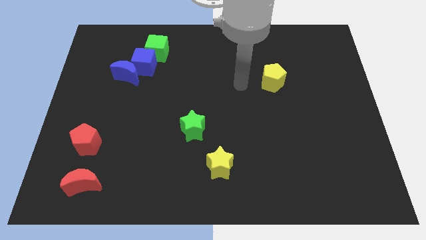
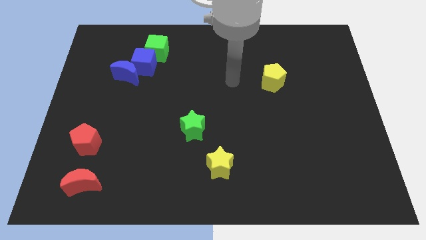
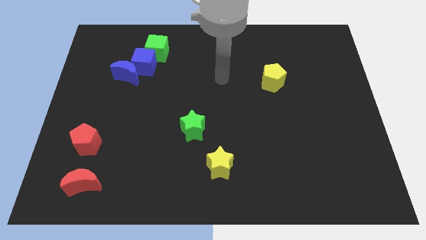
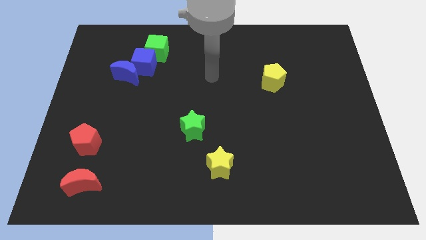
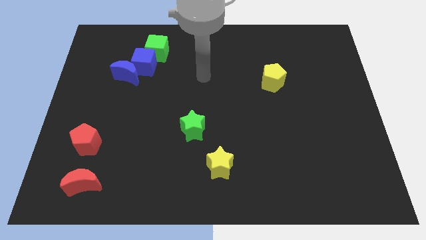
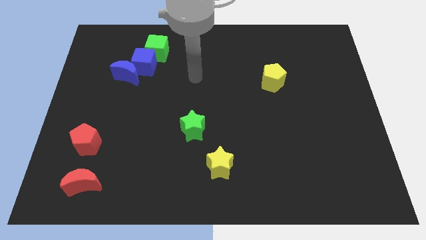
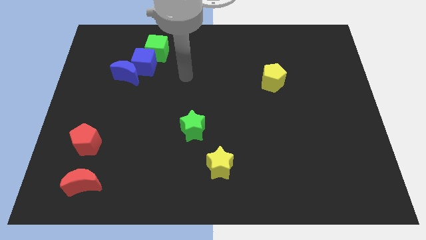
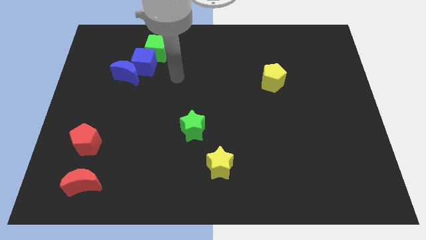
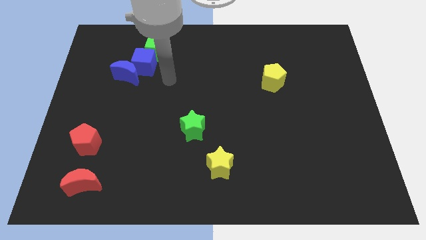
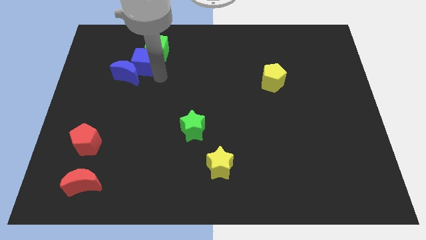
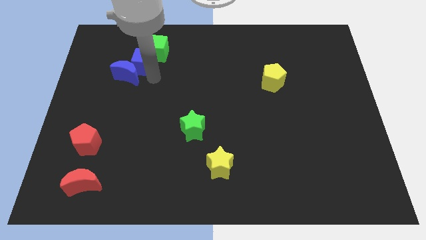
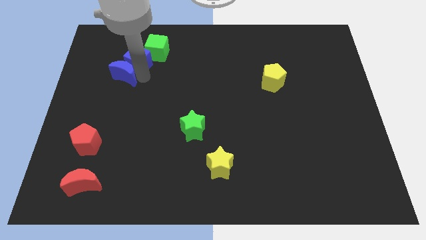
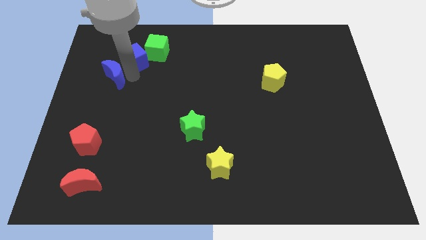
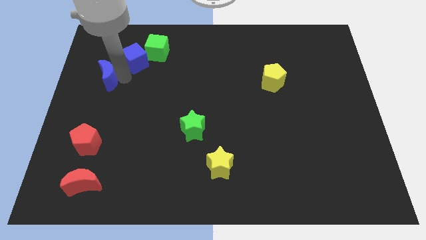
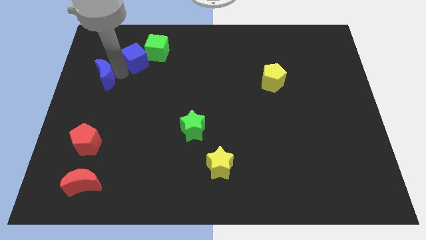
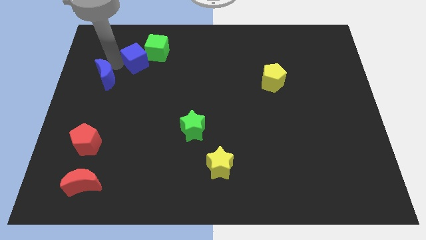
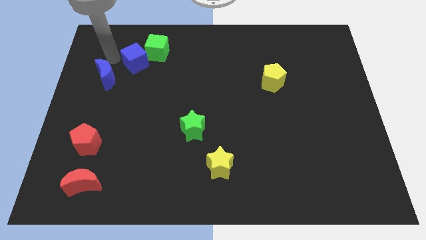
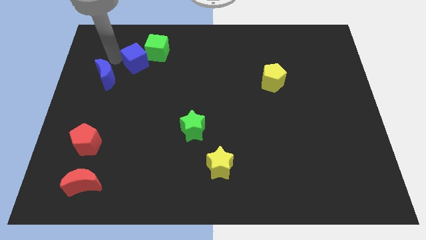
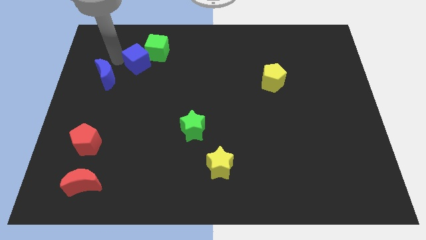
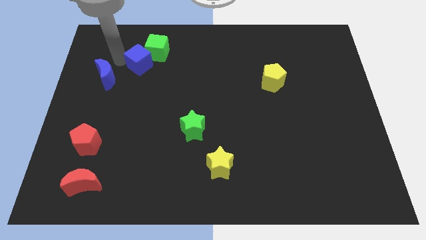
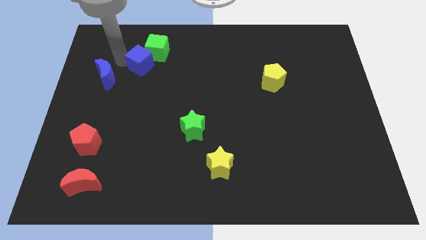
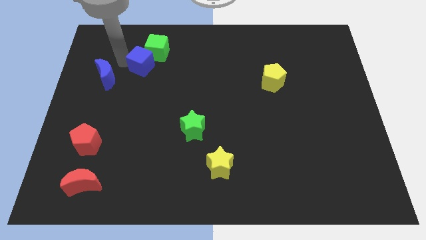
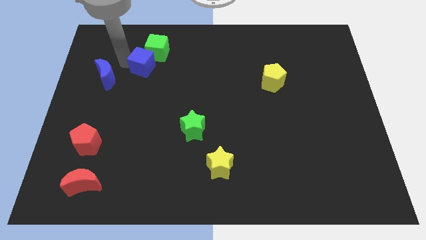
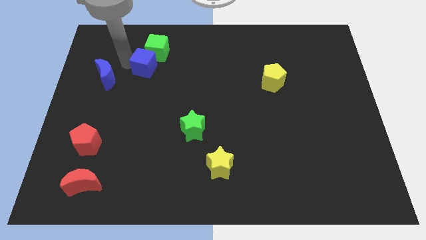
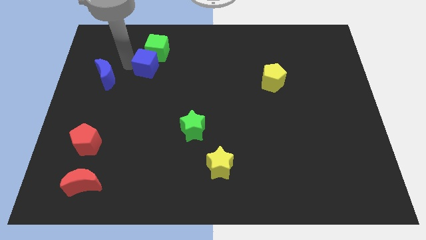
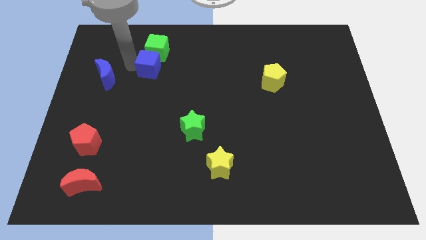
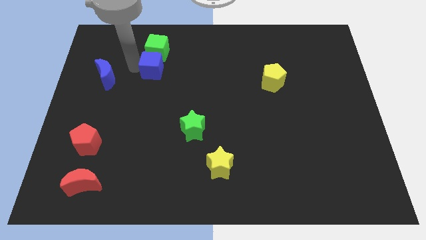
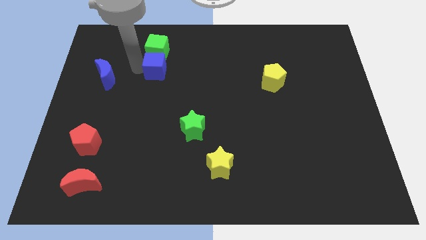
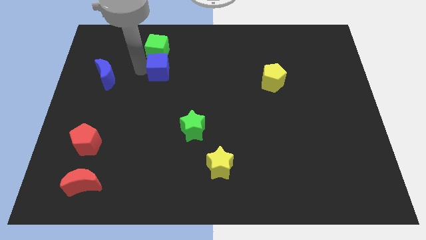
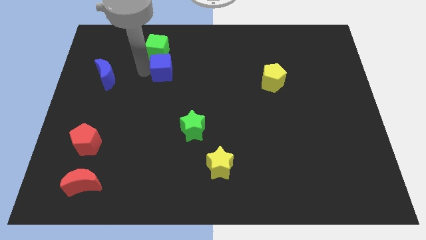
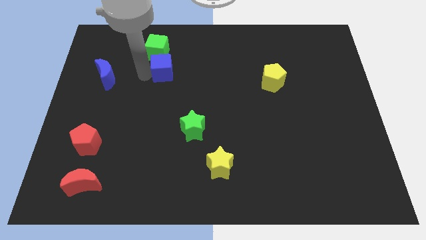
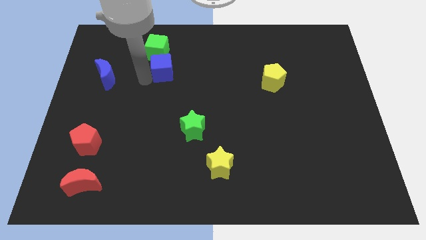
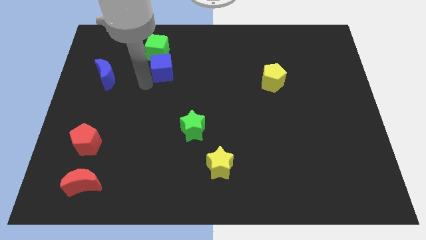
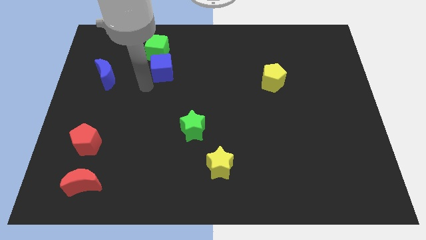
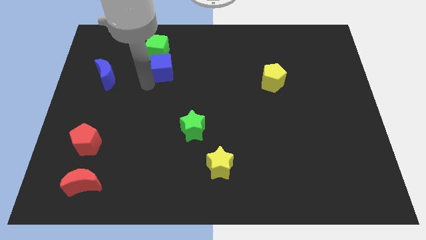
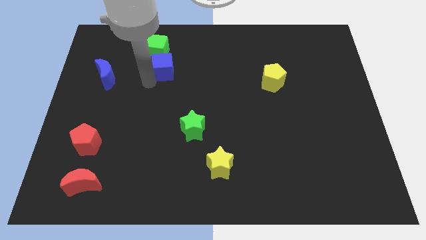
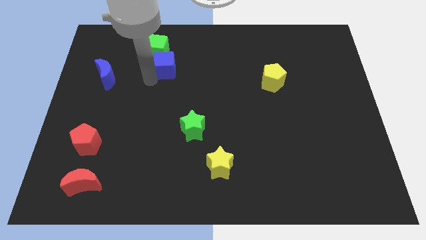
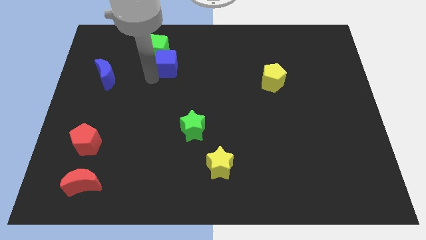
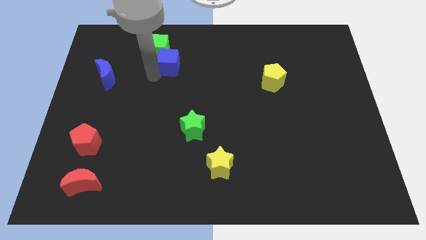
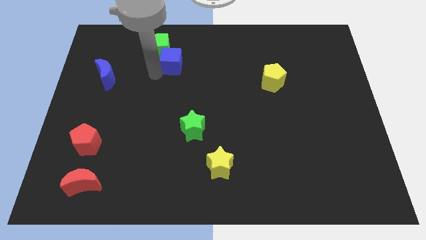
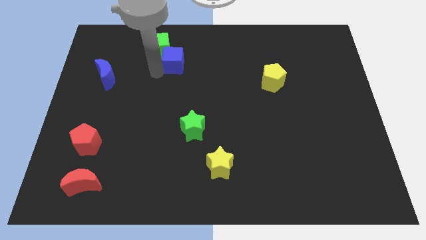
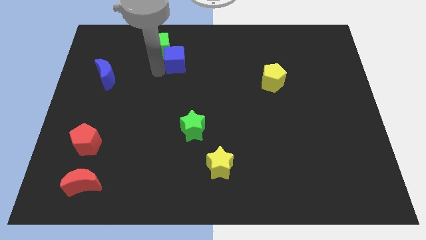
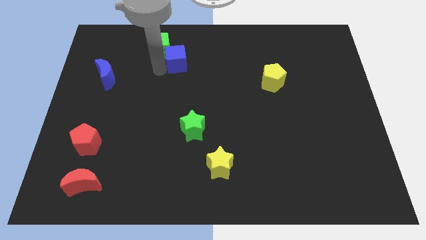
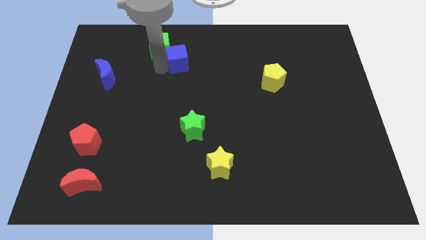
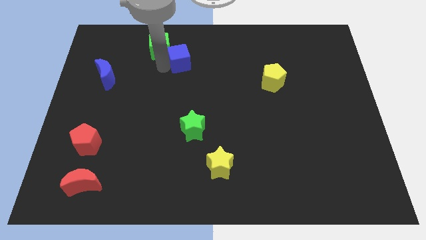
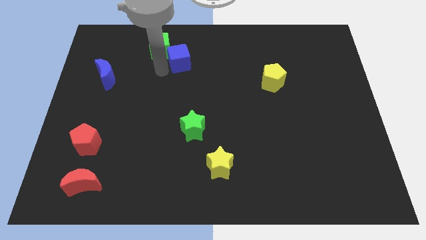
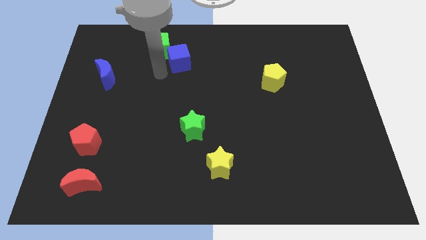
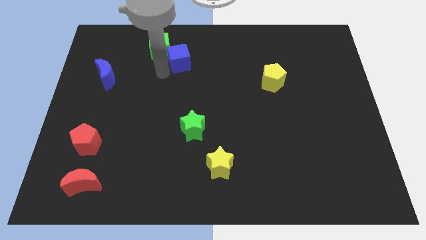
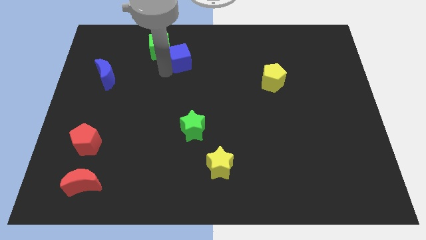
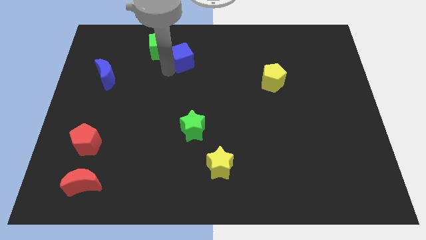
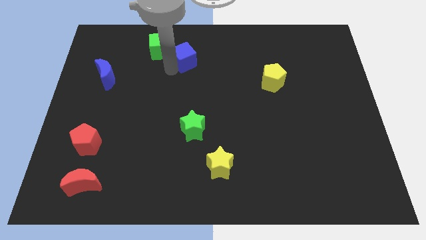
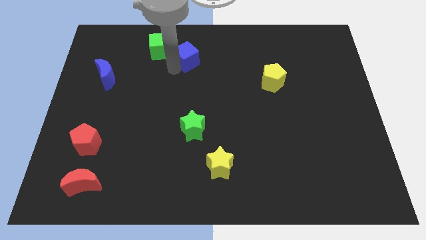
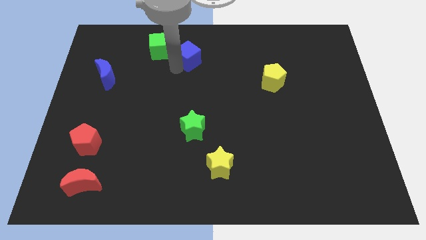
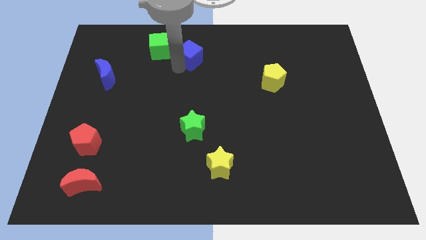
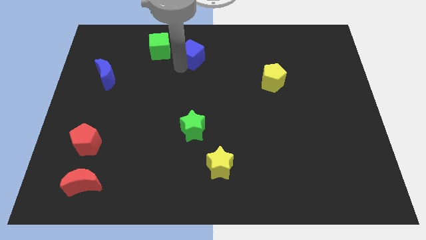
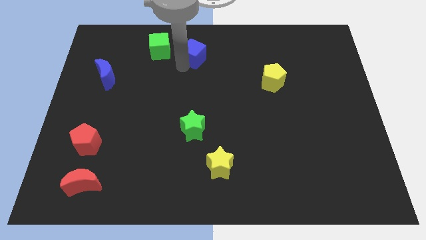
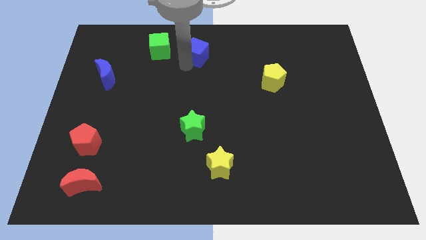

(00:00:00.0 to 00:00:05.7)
push the blue cube to the top side
